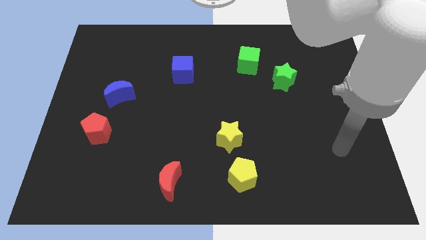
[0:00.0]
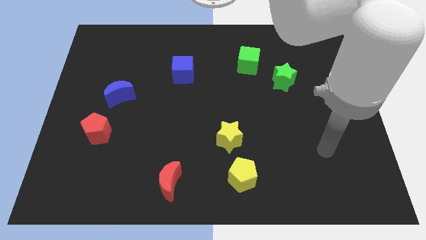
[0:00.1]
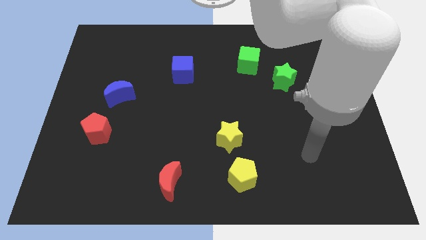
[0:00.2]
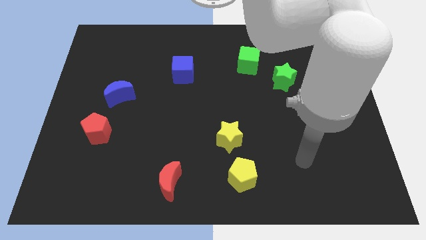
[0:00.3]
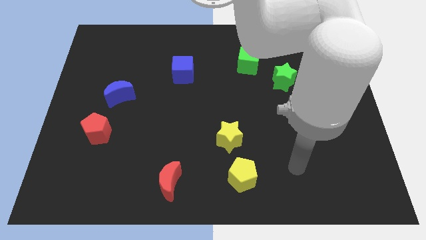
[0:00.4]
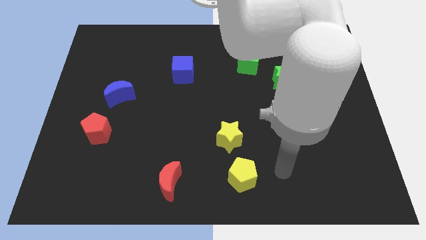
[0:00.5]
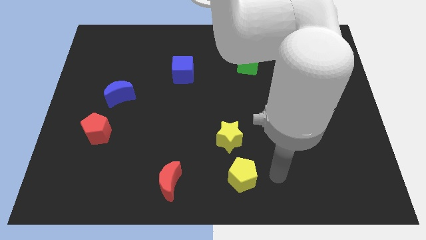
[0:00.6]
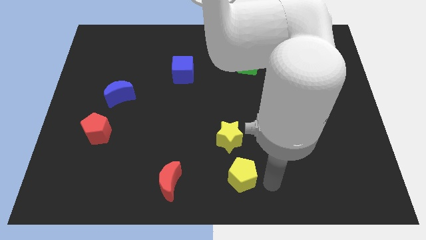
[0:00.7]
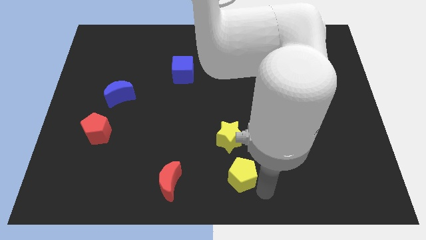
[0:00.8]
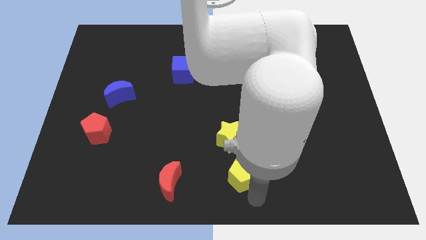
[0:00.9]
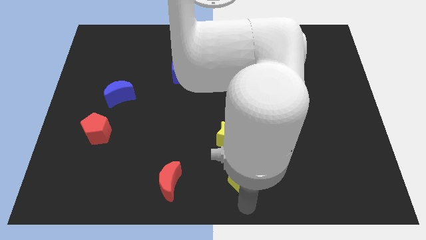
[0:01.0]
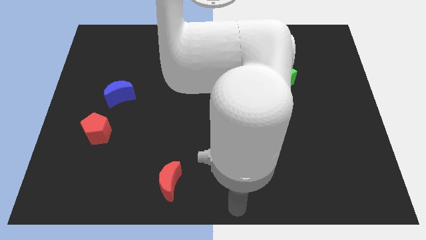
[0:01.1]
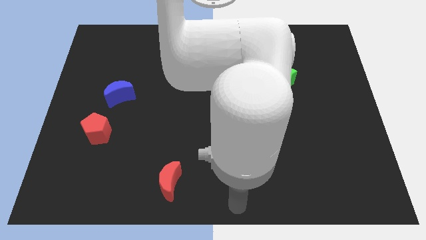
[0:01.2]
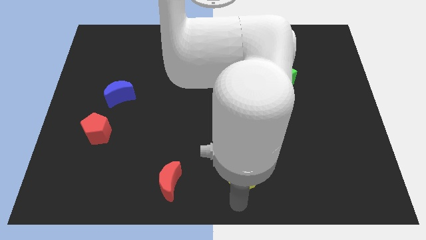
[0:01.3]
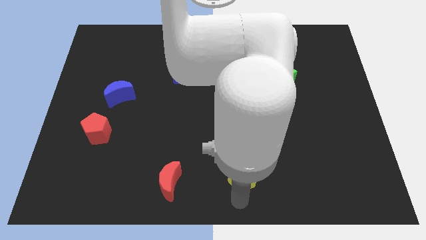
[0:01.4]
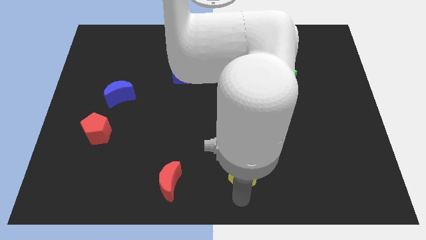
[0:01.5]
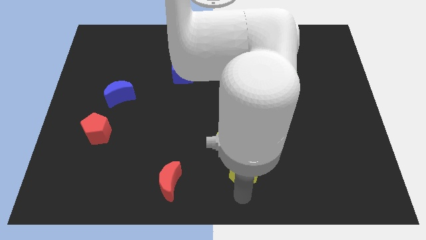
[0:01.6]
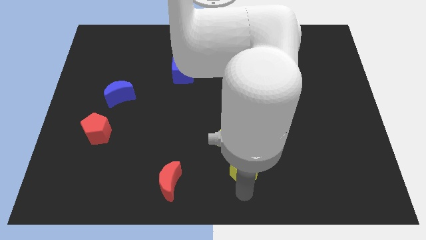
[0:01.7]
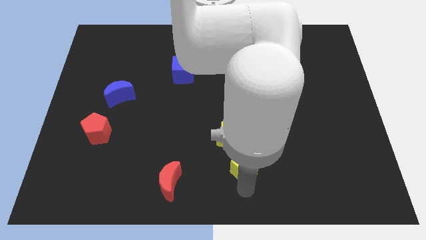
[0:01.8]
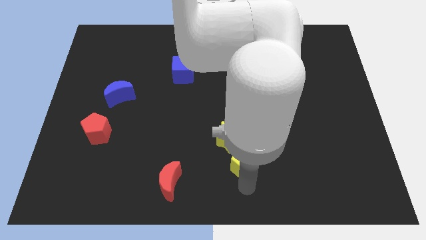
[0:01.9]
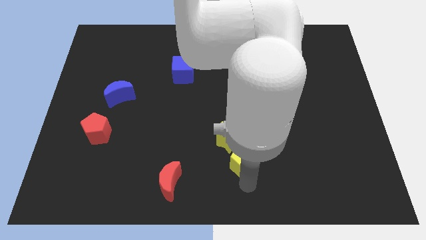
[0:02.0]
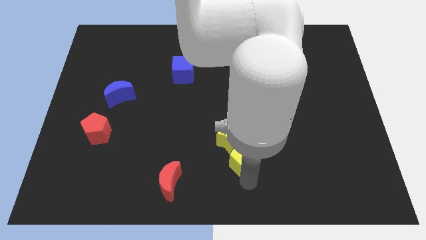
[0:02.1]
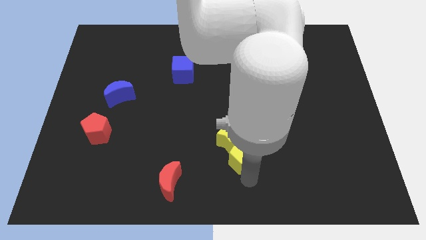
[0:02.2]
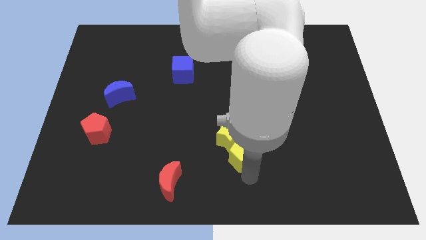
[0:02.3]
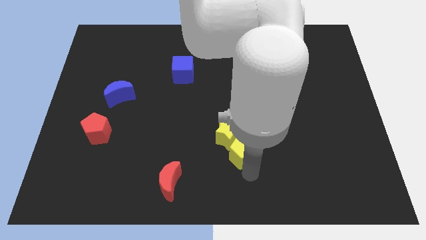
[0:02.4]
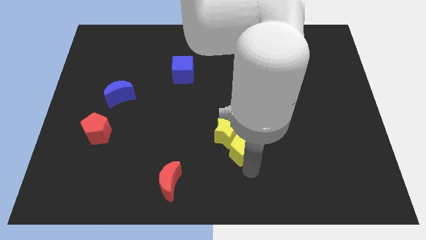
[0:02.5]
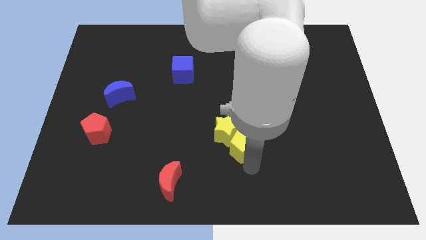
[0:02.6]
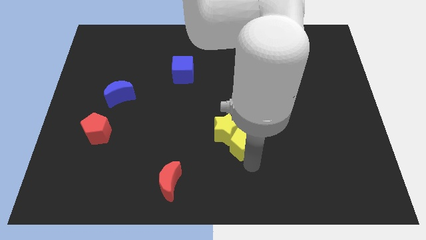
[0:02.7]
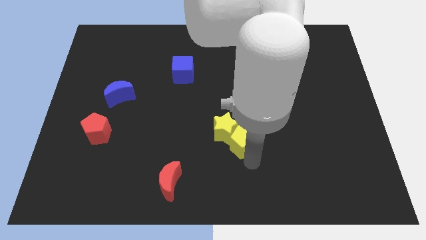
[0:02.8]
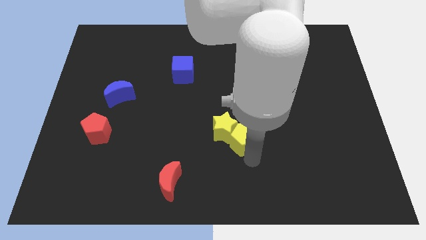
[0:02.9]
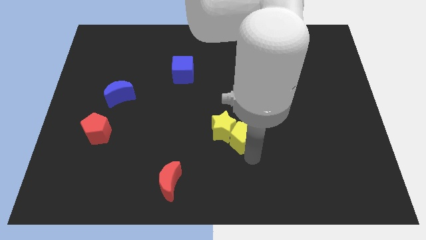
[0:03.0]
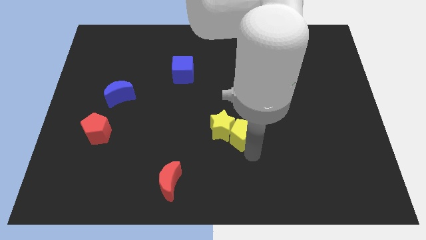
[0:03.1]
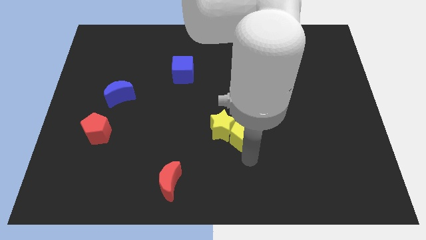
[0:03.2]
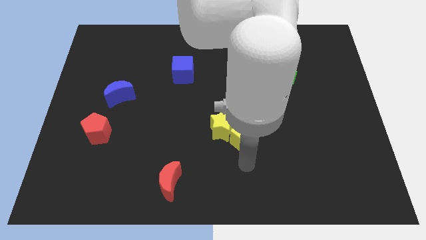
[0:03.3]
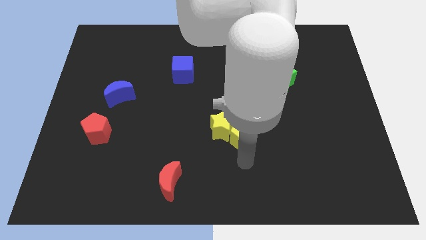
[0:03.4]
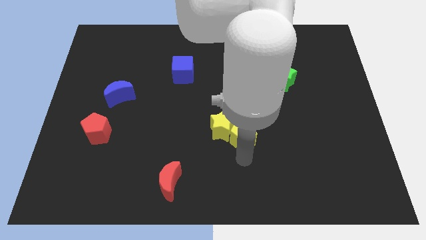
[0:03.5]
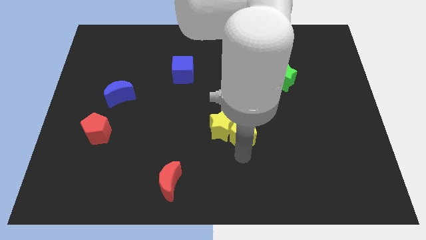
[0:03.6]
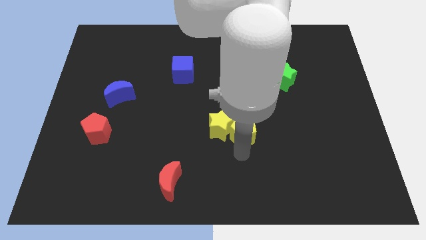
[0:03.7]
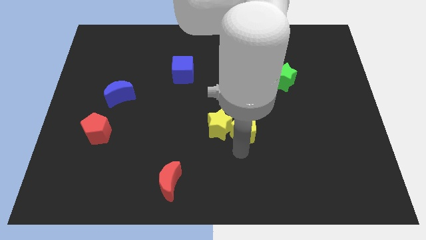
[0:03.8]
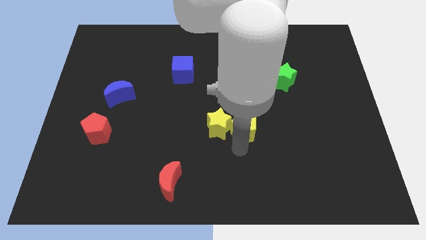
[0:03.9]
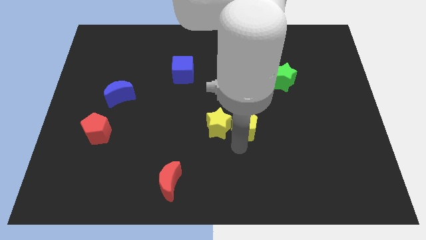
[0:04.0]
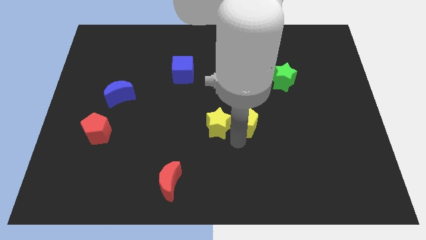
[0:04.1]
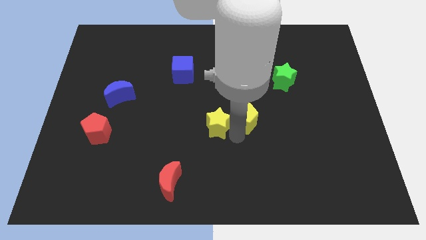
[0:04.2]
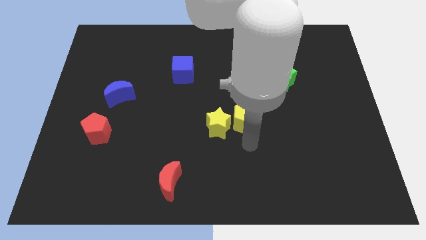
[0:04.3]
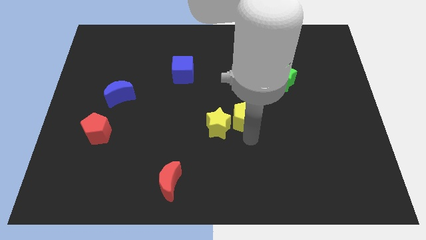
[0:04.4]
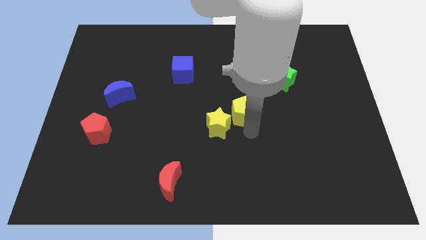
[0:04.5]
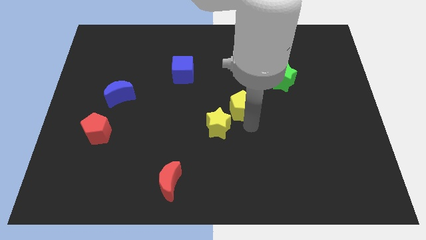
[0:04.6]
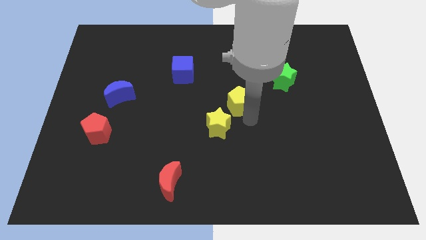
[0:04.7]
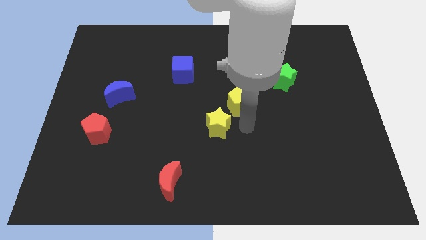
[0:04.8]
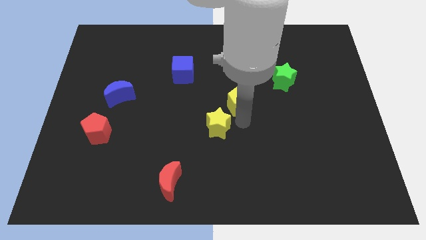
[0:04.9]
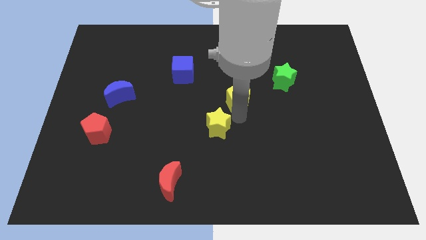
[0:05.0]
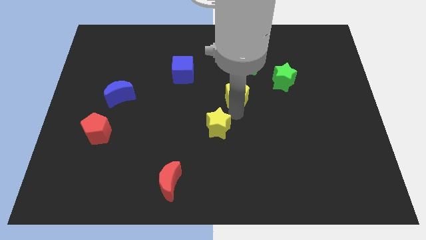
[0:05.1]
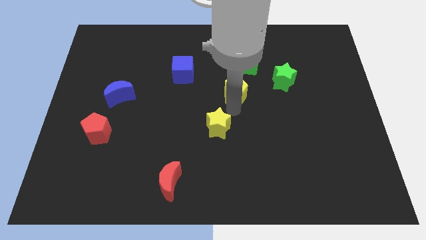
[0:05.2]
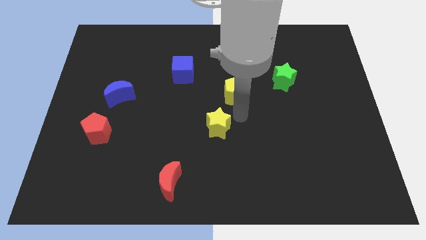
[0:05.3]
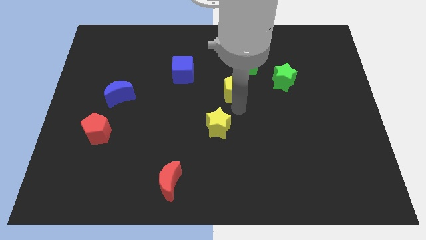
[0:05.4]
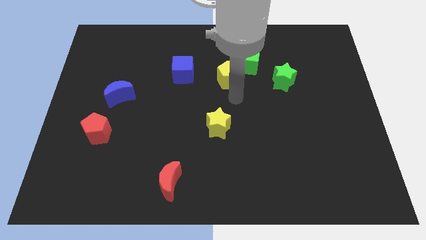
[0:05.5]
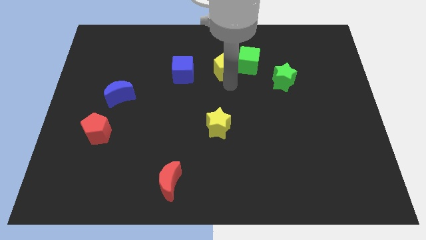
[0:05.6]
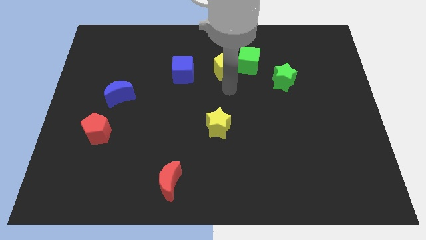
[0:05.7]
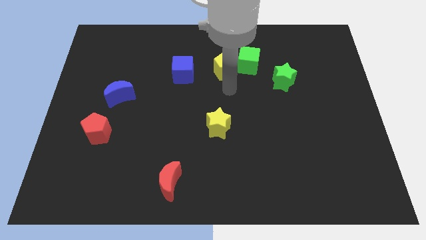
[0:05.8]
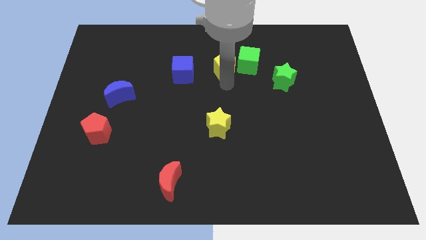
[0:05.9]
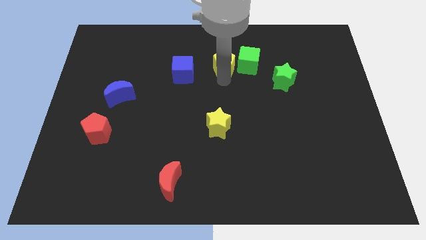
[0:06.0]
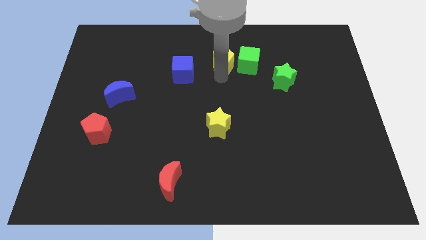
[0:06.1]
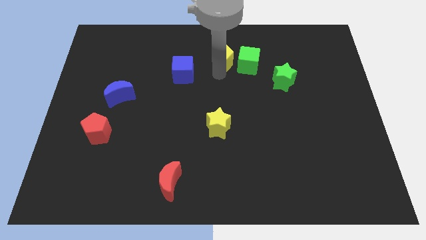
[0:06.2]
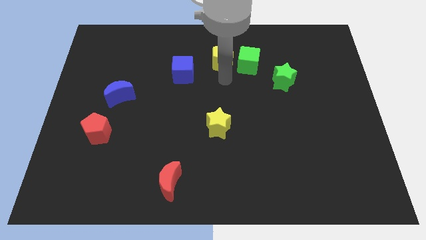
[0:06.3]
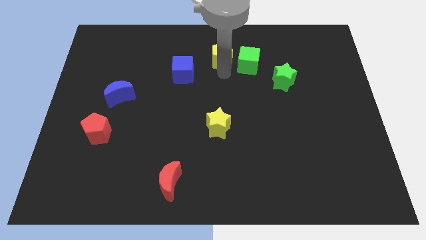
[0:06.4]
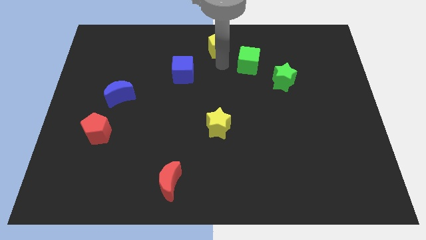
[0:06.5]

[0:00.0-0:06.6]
move the yellow pentagon to the top
